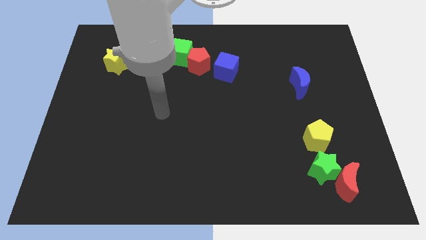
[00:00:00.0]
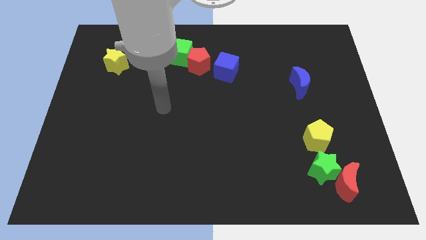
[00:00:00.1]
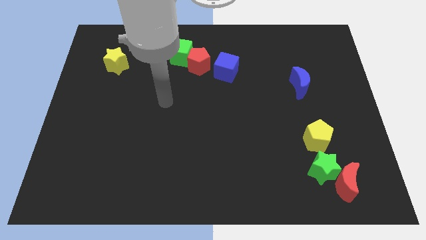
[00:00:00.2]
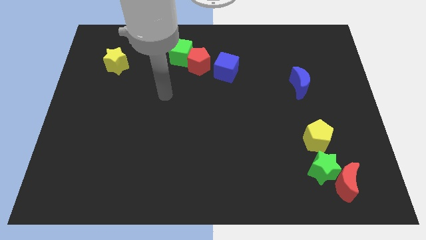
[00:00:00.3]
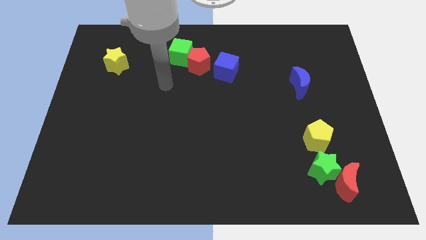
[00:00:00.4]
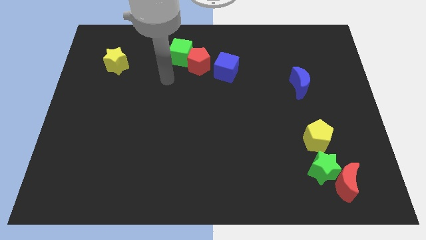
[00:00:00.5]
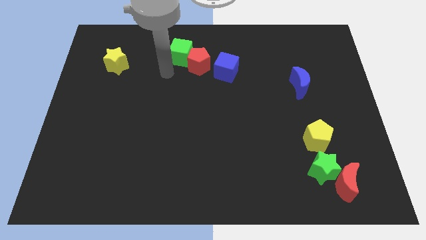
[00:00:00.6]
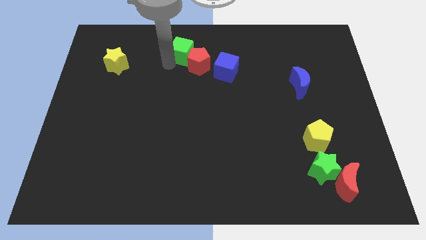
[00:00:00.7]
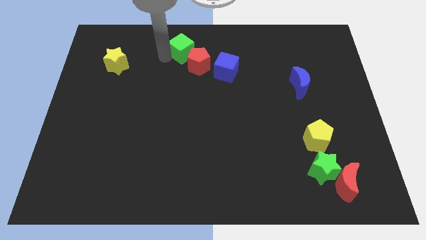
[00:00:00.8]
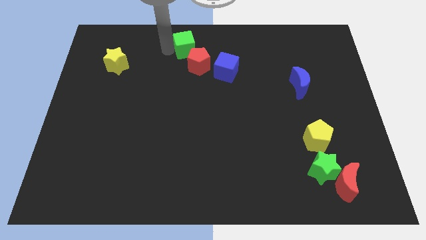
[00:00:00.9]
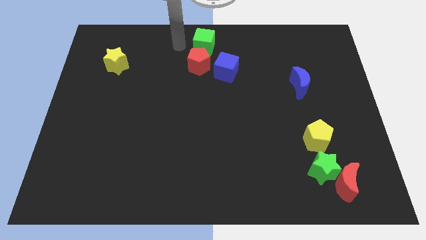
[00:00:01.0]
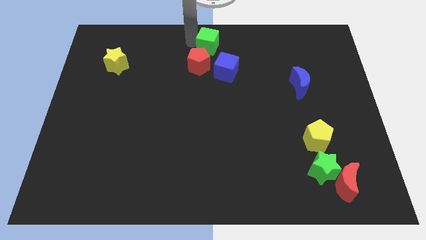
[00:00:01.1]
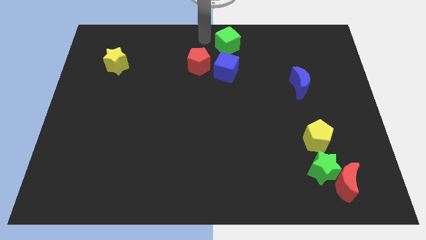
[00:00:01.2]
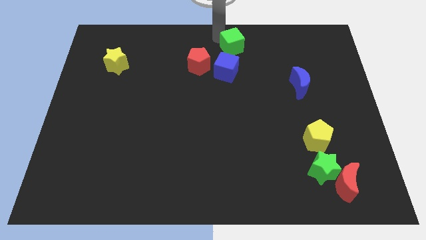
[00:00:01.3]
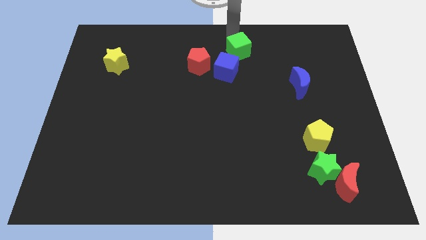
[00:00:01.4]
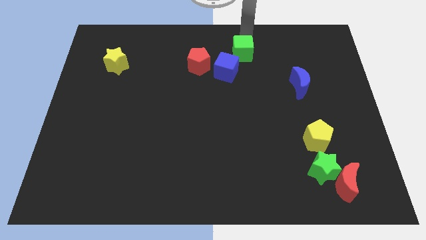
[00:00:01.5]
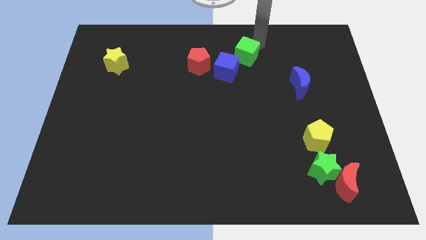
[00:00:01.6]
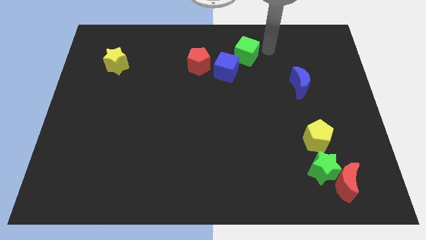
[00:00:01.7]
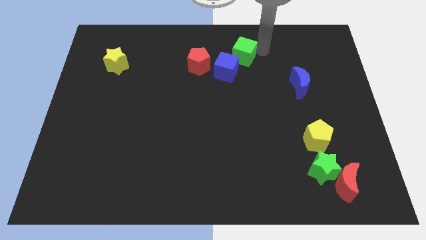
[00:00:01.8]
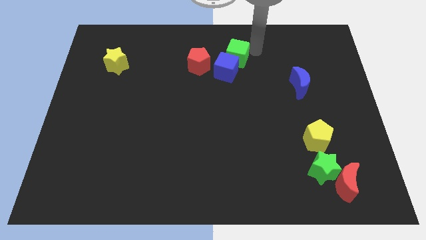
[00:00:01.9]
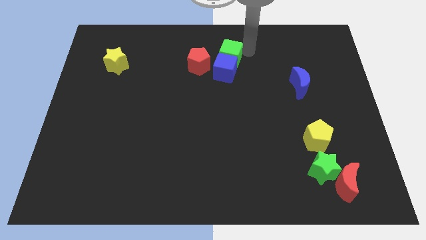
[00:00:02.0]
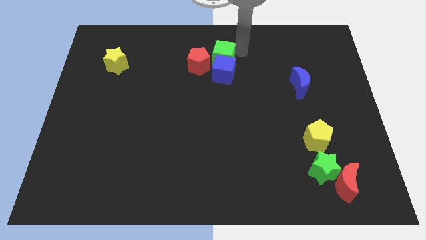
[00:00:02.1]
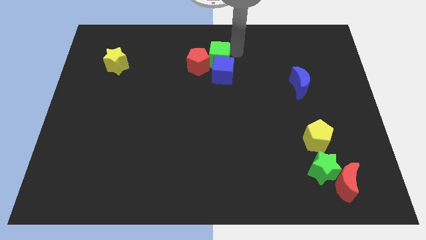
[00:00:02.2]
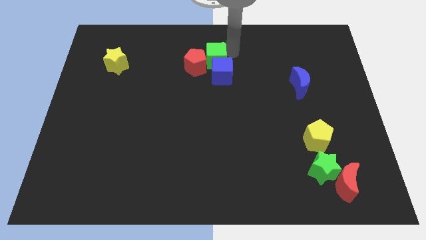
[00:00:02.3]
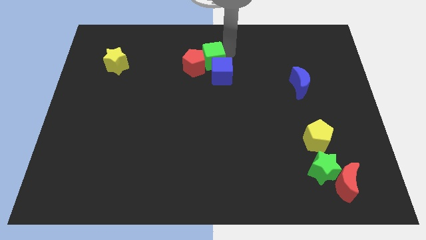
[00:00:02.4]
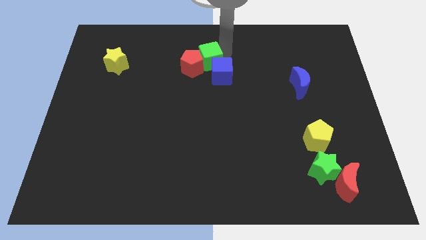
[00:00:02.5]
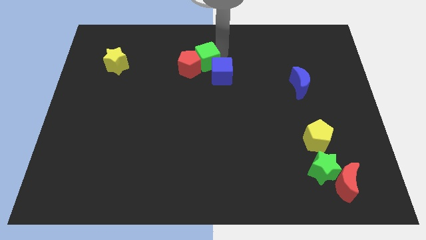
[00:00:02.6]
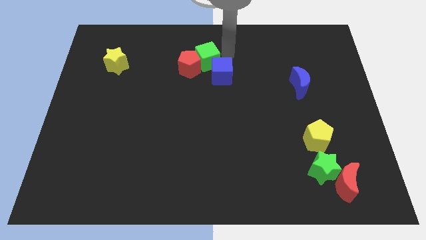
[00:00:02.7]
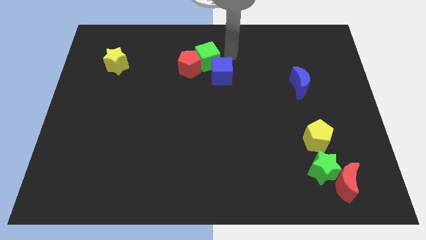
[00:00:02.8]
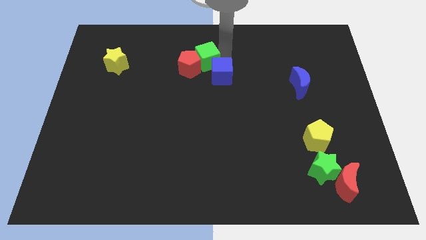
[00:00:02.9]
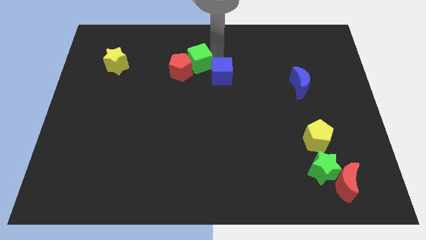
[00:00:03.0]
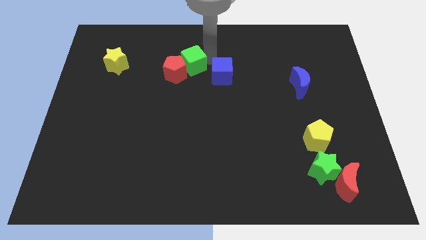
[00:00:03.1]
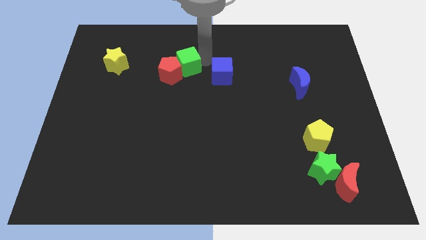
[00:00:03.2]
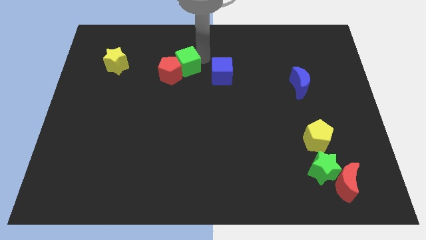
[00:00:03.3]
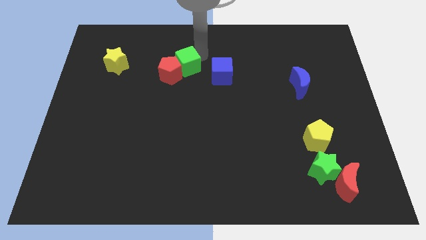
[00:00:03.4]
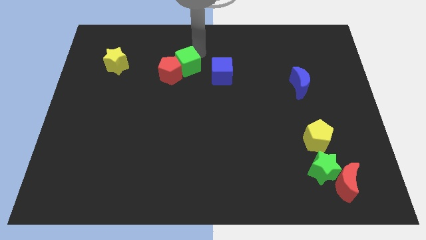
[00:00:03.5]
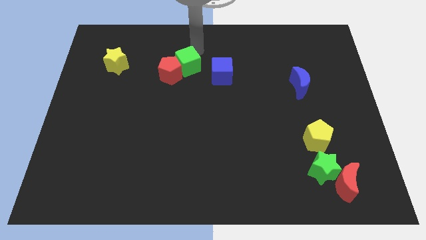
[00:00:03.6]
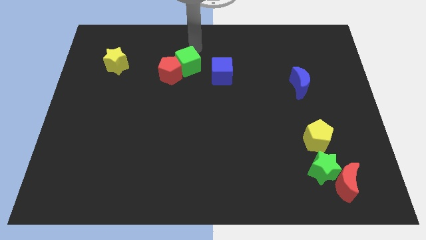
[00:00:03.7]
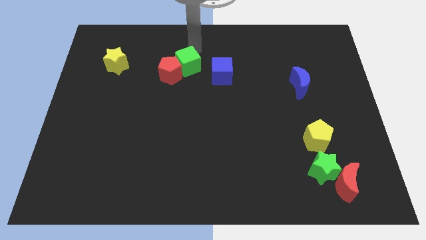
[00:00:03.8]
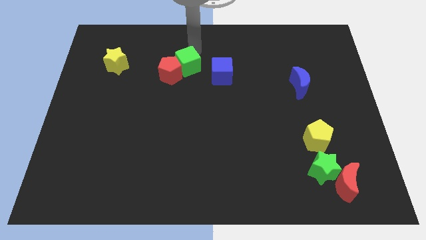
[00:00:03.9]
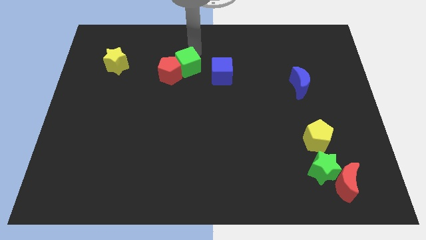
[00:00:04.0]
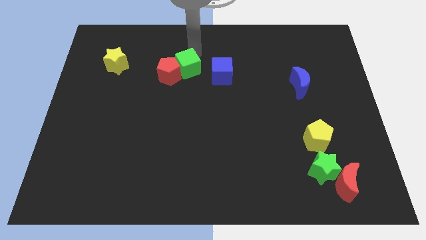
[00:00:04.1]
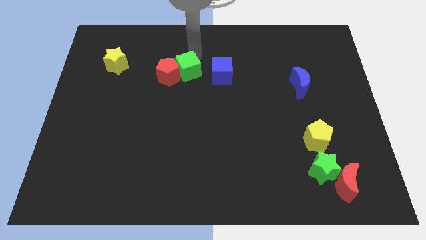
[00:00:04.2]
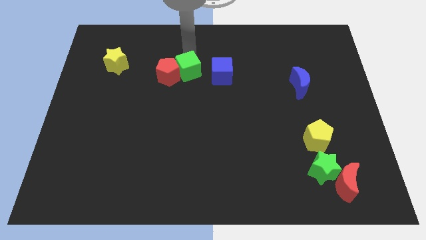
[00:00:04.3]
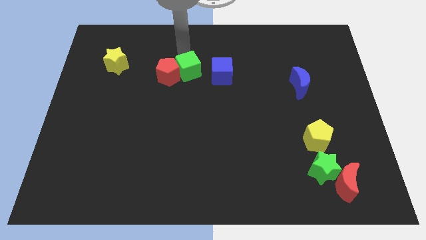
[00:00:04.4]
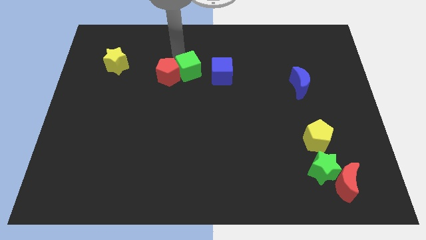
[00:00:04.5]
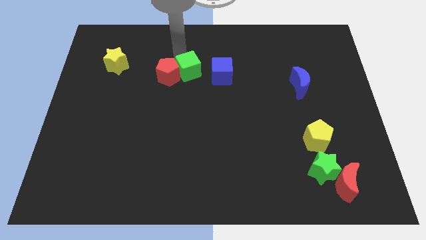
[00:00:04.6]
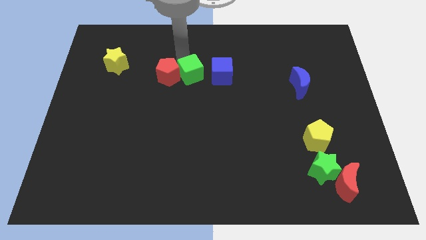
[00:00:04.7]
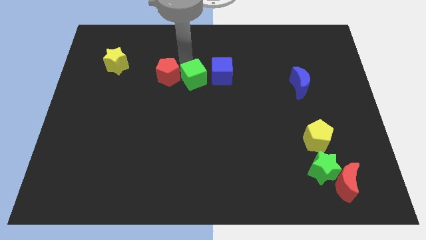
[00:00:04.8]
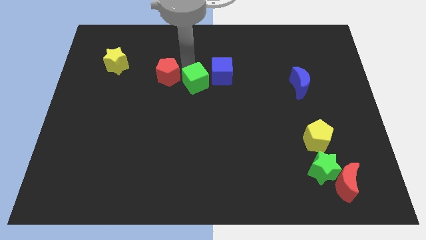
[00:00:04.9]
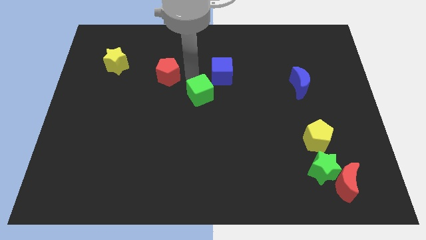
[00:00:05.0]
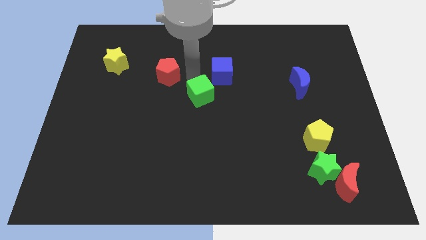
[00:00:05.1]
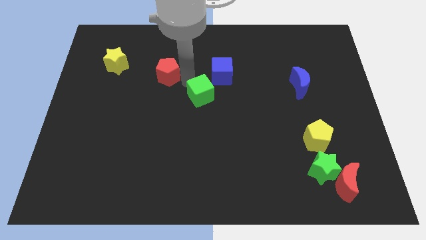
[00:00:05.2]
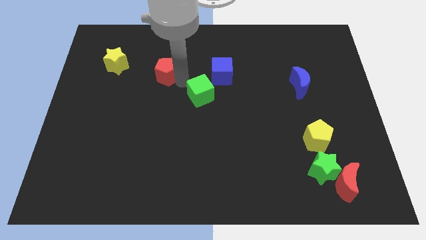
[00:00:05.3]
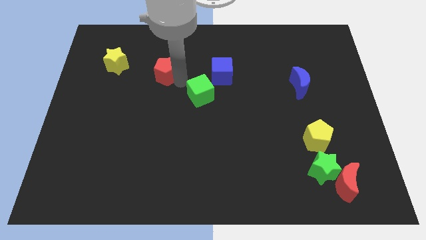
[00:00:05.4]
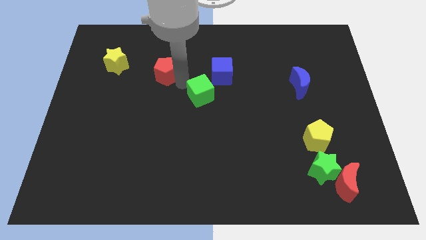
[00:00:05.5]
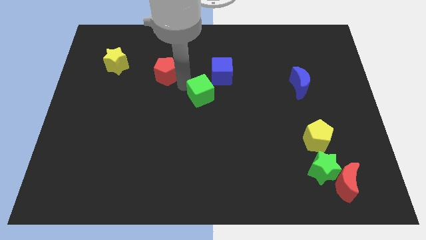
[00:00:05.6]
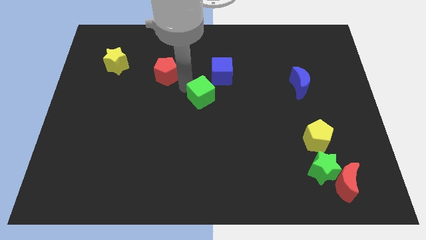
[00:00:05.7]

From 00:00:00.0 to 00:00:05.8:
move the green cube to the bottom side of the blue cube

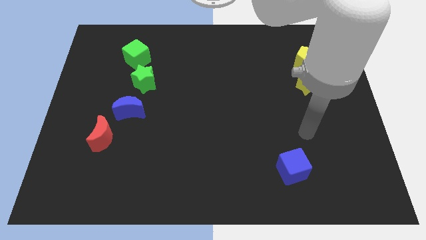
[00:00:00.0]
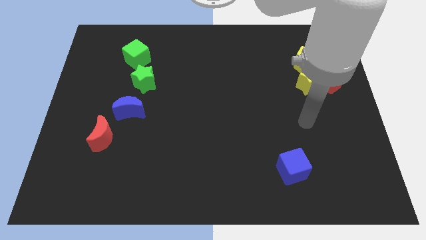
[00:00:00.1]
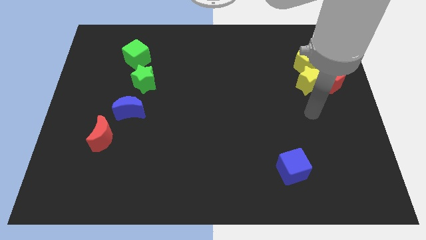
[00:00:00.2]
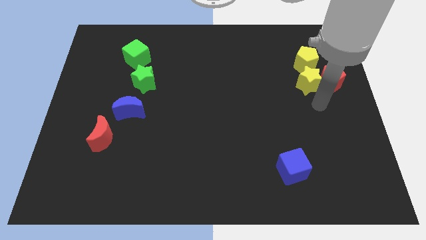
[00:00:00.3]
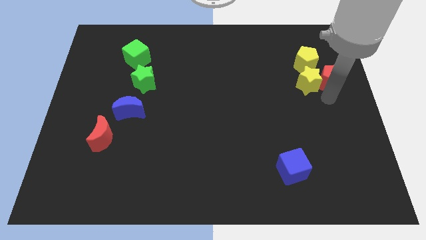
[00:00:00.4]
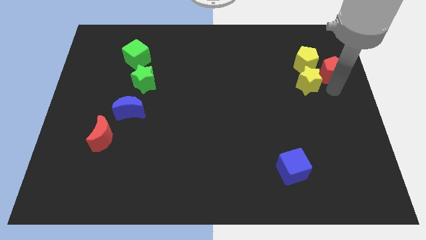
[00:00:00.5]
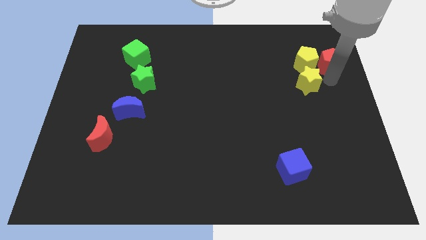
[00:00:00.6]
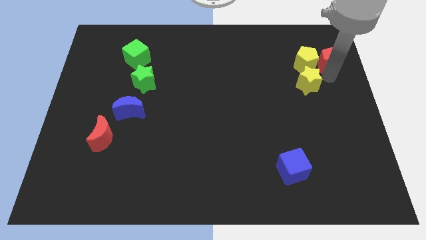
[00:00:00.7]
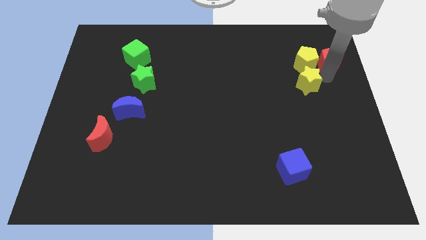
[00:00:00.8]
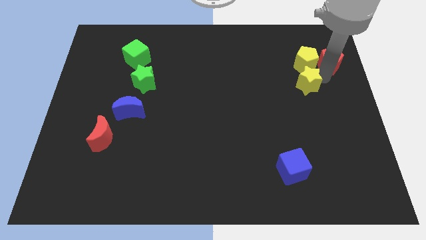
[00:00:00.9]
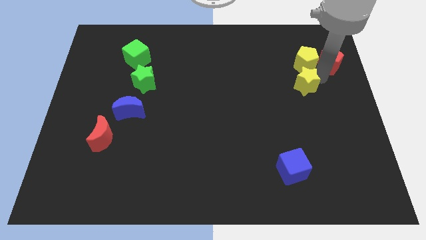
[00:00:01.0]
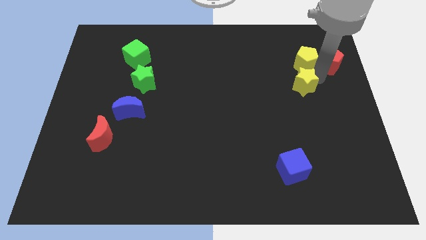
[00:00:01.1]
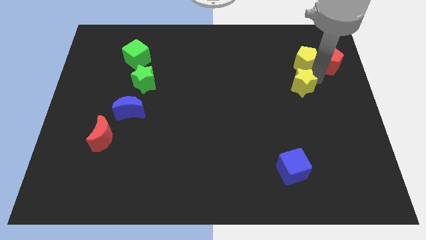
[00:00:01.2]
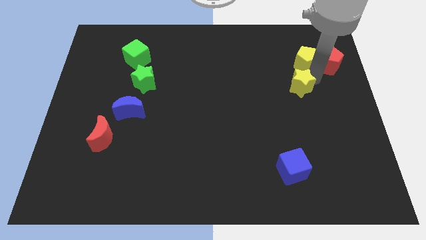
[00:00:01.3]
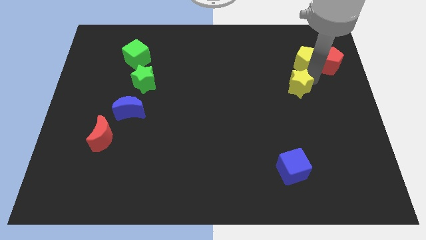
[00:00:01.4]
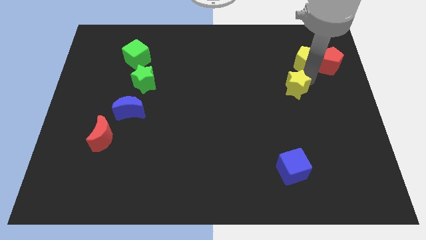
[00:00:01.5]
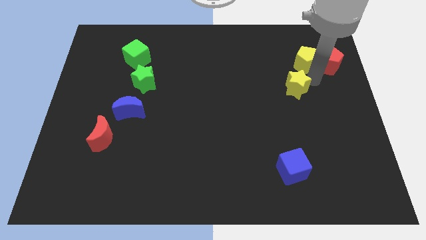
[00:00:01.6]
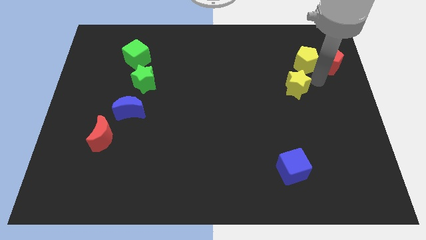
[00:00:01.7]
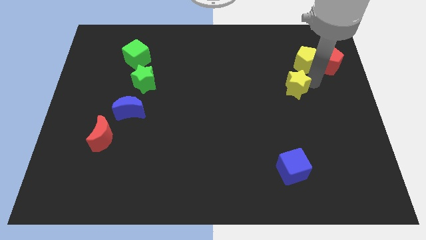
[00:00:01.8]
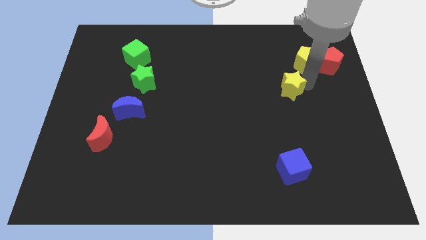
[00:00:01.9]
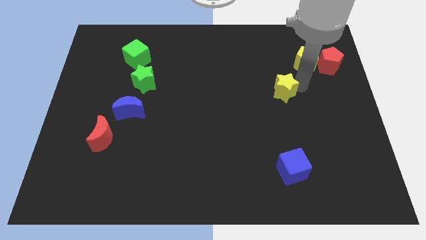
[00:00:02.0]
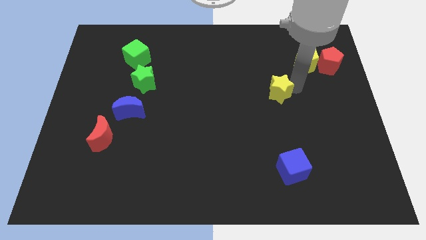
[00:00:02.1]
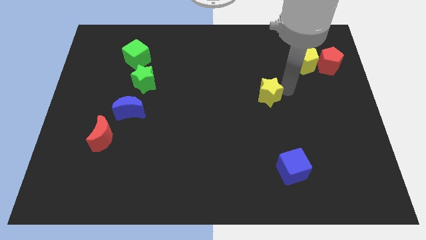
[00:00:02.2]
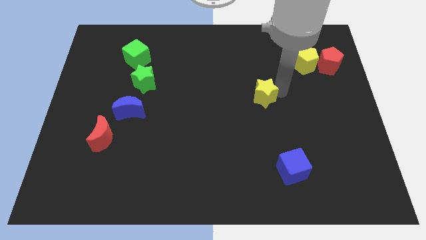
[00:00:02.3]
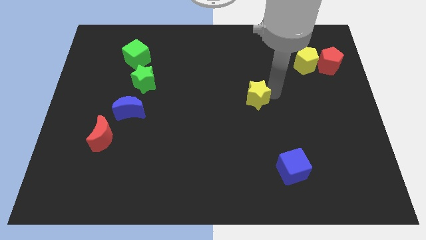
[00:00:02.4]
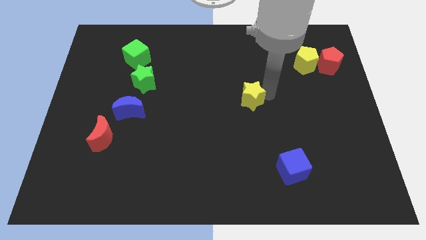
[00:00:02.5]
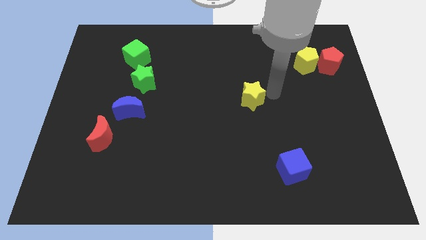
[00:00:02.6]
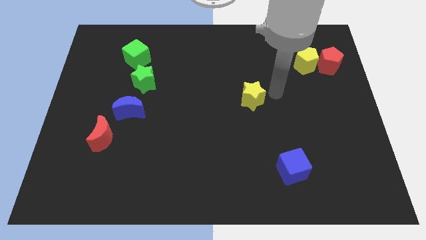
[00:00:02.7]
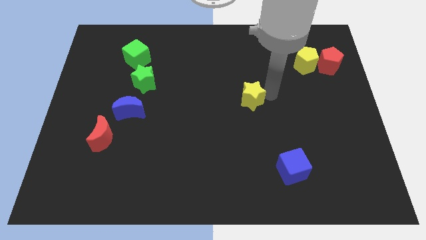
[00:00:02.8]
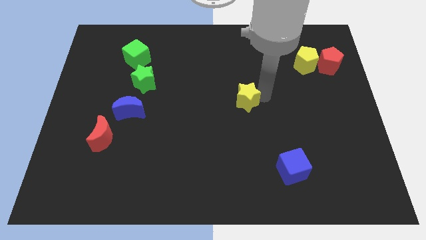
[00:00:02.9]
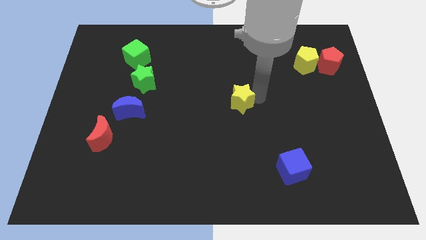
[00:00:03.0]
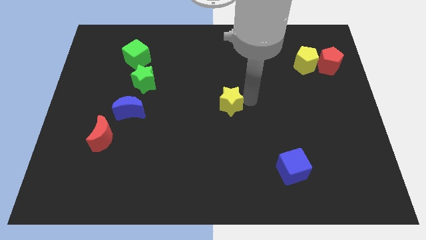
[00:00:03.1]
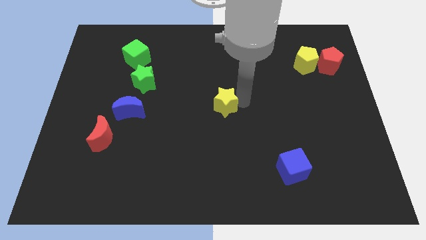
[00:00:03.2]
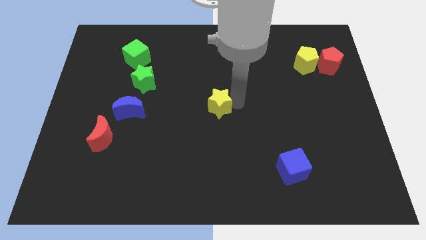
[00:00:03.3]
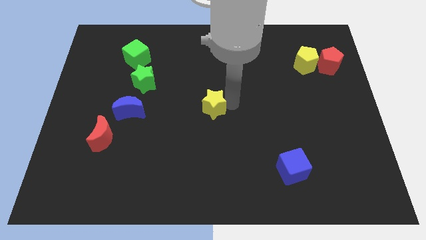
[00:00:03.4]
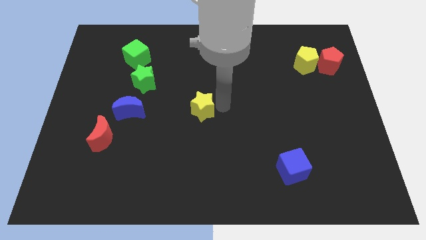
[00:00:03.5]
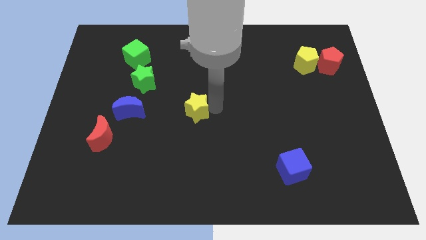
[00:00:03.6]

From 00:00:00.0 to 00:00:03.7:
put the yellow star to the right side of the blue moon
